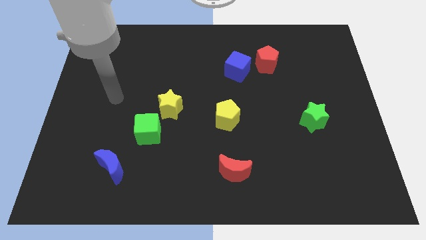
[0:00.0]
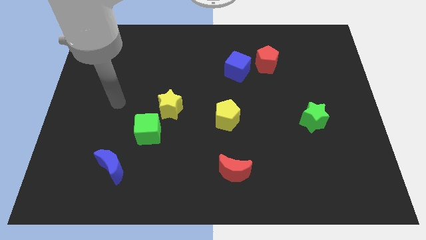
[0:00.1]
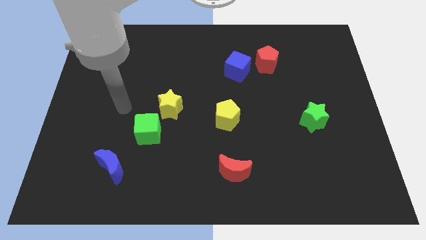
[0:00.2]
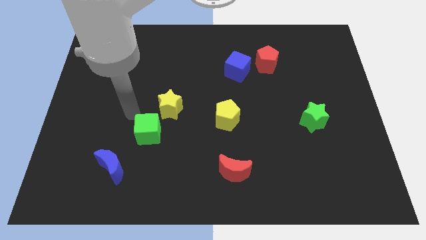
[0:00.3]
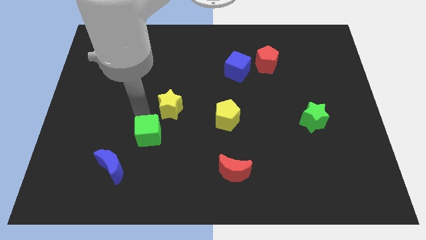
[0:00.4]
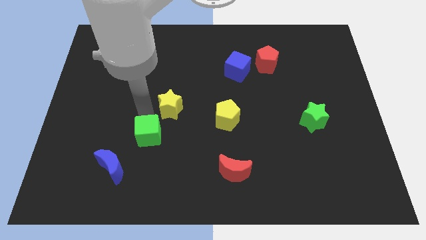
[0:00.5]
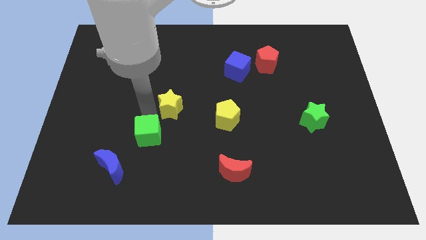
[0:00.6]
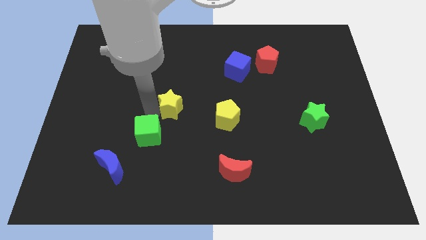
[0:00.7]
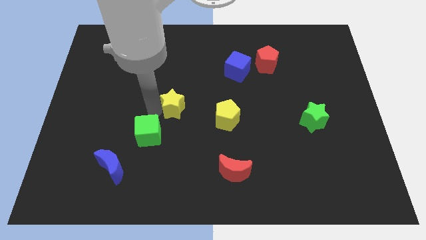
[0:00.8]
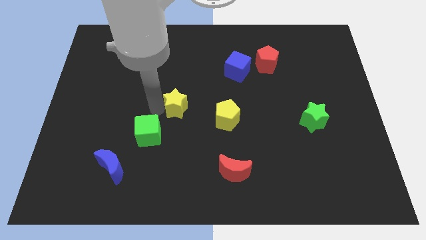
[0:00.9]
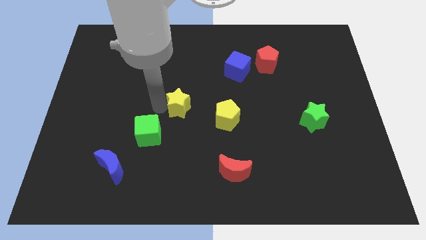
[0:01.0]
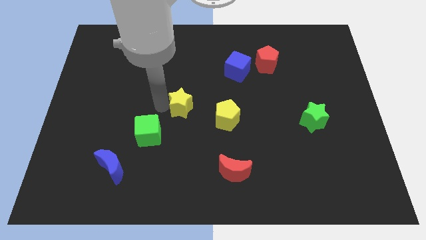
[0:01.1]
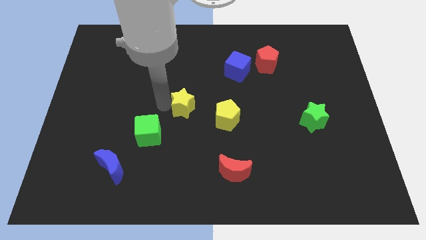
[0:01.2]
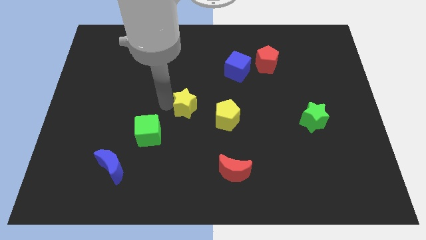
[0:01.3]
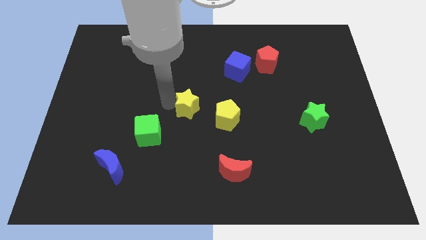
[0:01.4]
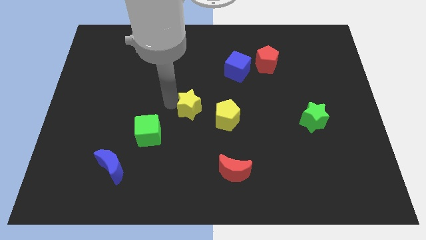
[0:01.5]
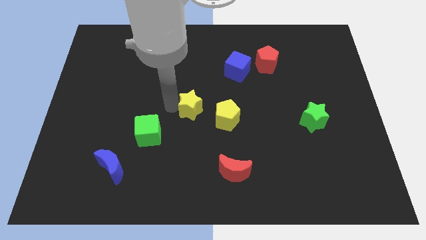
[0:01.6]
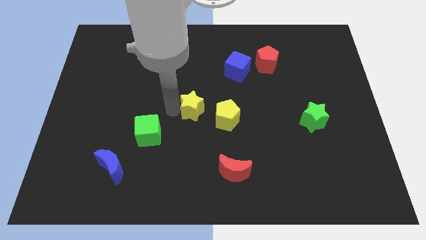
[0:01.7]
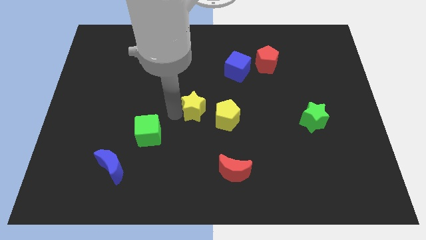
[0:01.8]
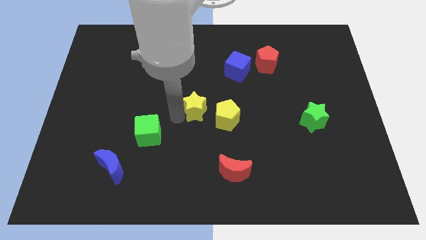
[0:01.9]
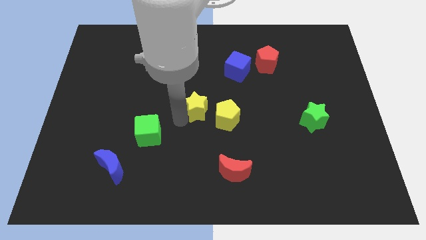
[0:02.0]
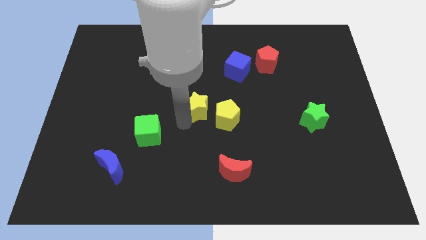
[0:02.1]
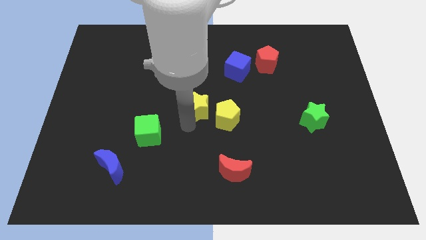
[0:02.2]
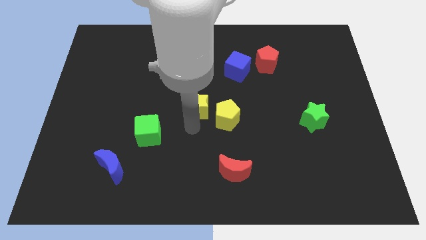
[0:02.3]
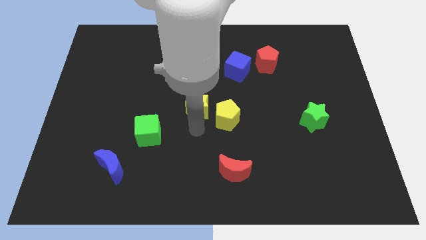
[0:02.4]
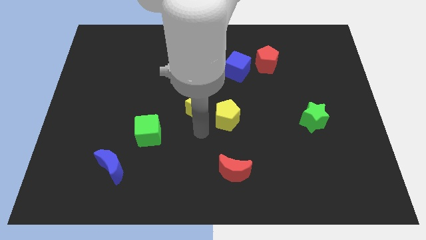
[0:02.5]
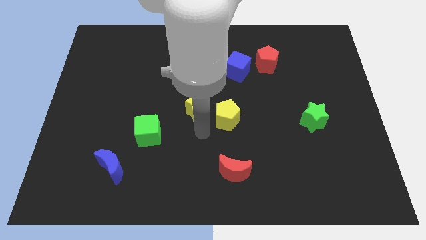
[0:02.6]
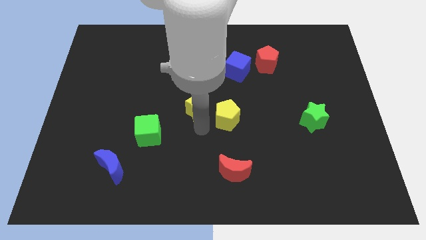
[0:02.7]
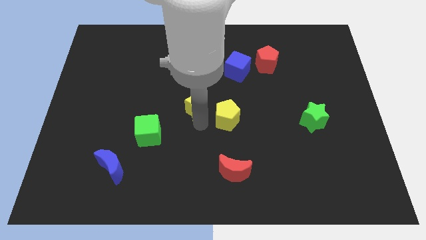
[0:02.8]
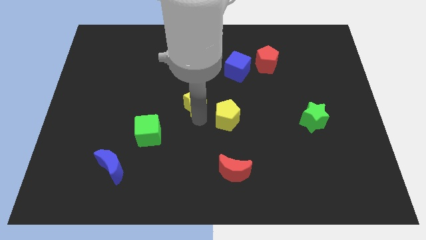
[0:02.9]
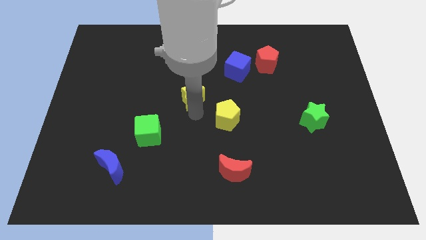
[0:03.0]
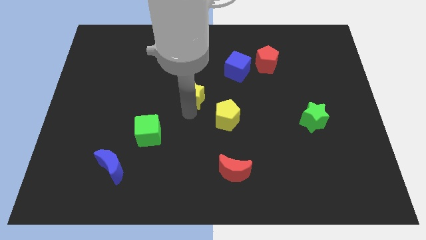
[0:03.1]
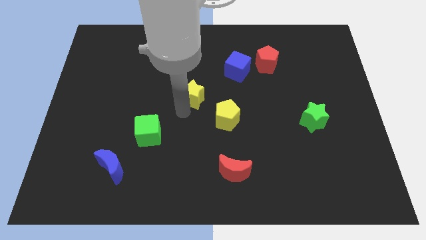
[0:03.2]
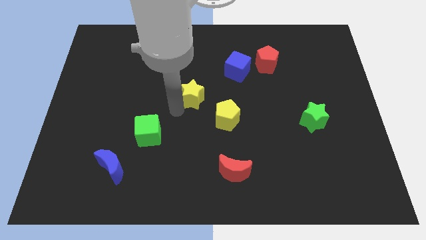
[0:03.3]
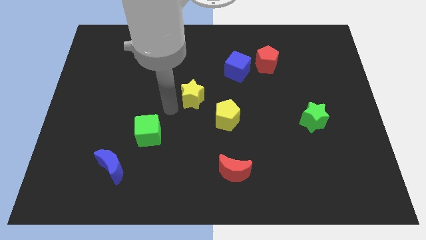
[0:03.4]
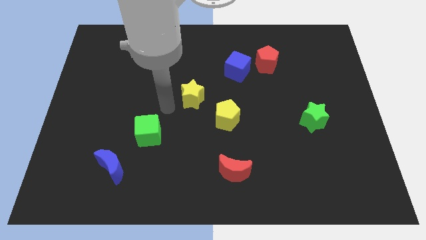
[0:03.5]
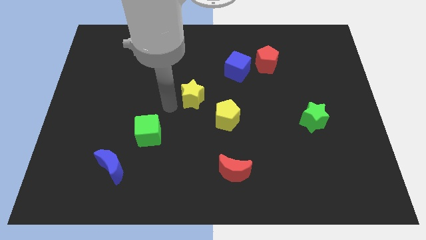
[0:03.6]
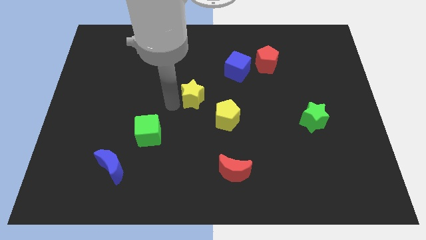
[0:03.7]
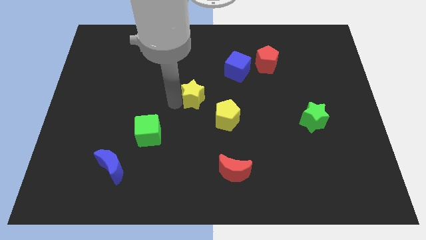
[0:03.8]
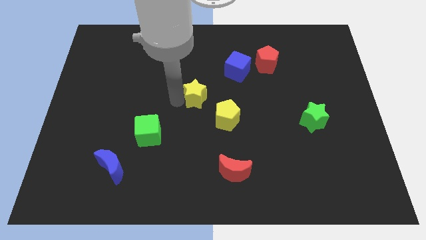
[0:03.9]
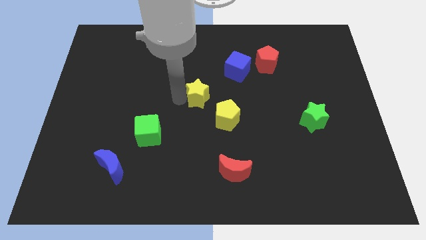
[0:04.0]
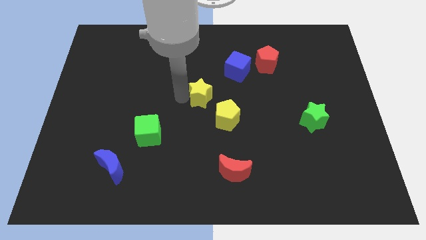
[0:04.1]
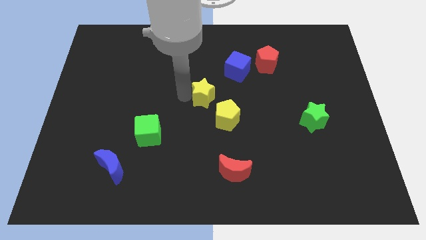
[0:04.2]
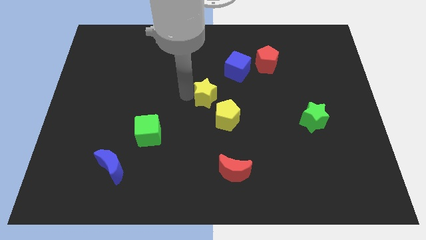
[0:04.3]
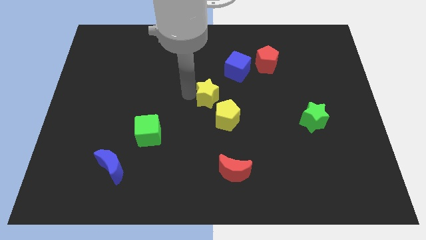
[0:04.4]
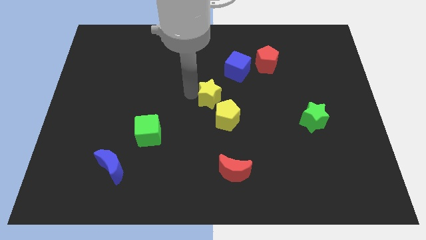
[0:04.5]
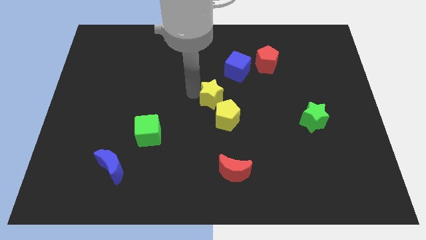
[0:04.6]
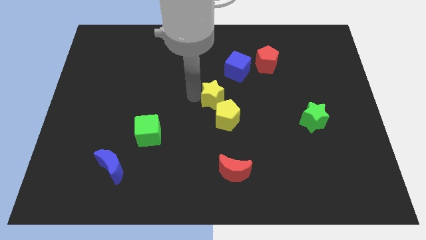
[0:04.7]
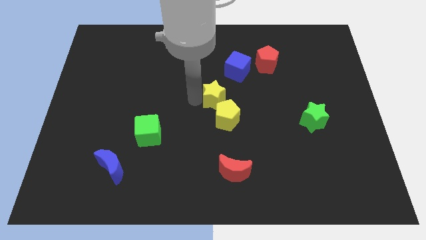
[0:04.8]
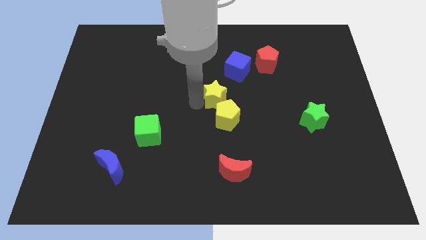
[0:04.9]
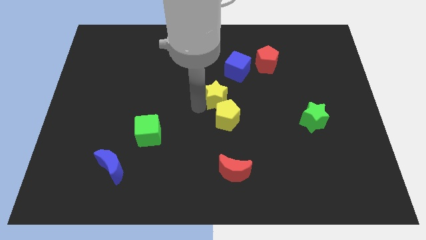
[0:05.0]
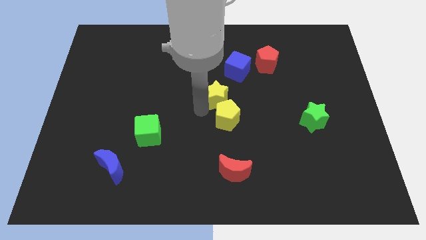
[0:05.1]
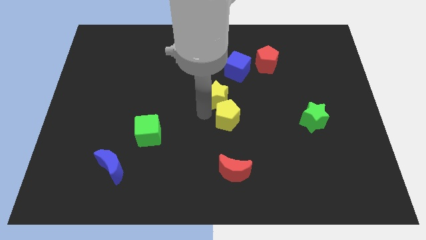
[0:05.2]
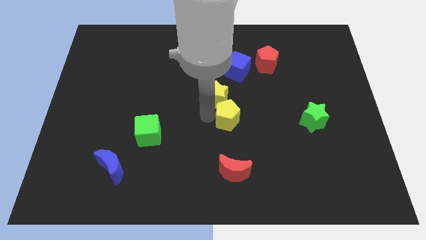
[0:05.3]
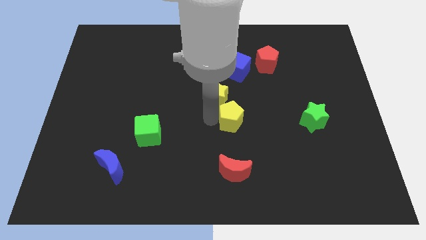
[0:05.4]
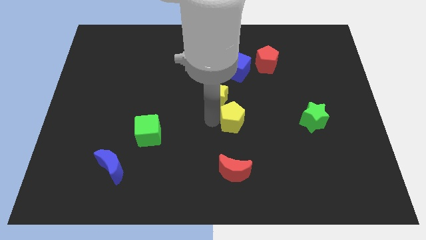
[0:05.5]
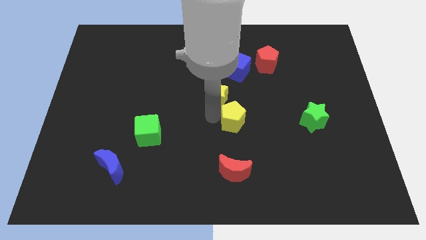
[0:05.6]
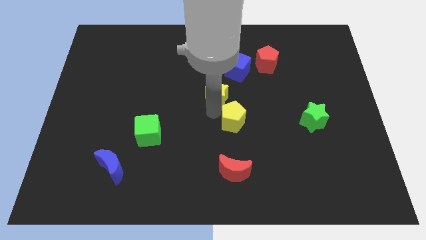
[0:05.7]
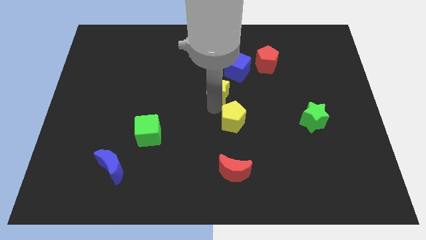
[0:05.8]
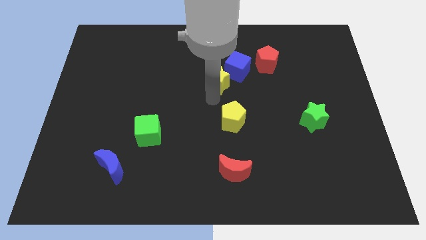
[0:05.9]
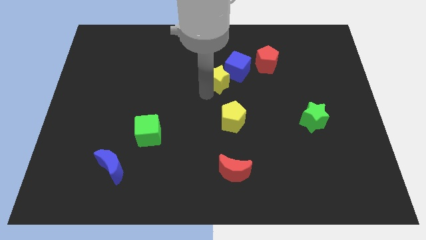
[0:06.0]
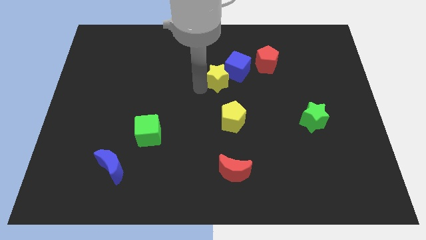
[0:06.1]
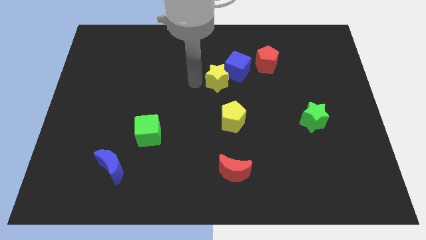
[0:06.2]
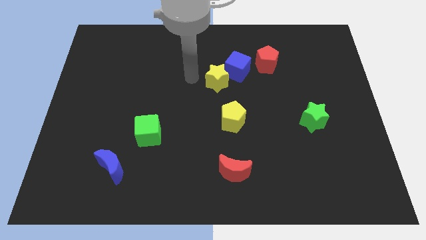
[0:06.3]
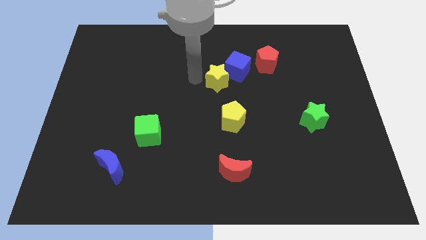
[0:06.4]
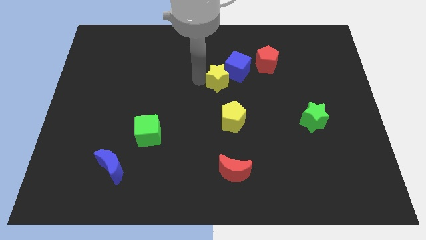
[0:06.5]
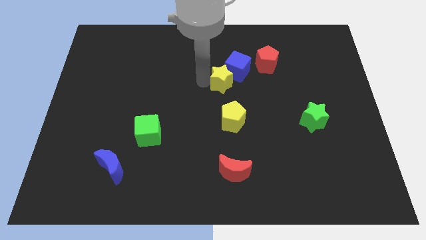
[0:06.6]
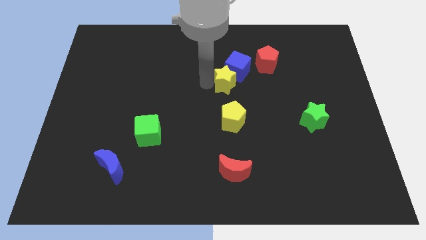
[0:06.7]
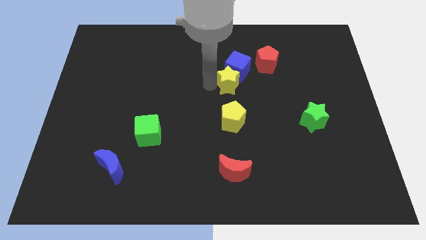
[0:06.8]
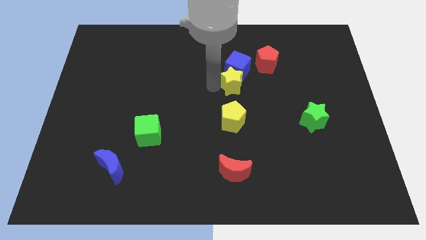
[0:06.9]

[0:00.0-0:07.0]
put the yellow star to the bottom right side of the blue cube

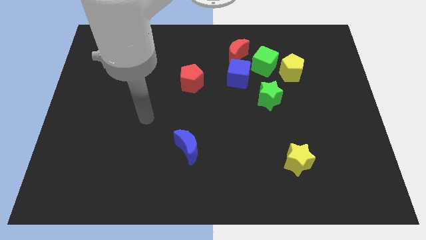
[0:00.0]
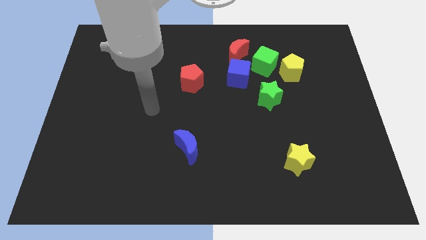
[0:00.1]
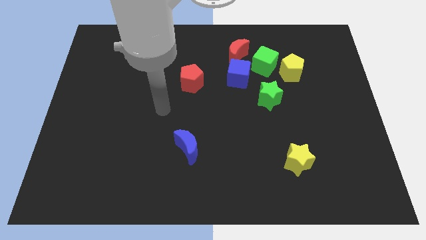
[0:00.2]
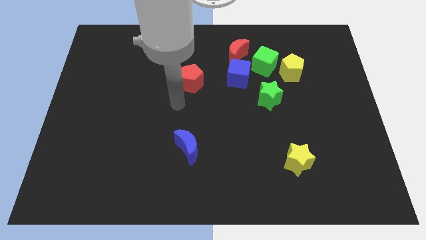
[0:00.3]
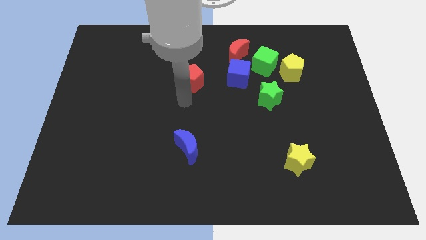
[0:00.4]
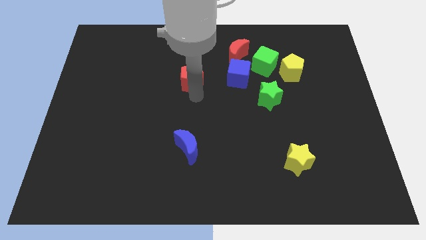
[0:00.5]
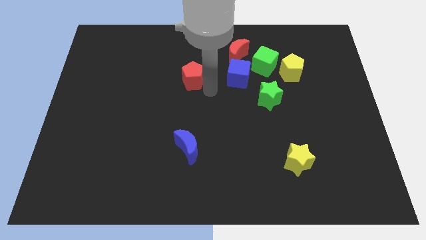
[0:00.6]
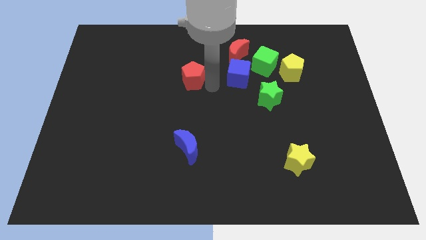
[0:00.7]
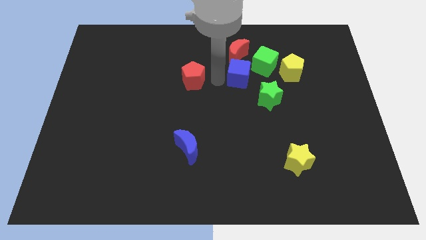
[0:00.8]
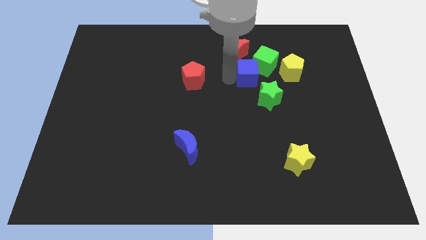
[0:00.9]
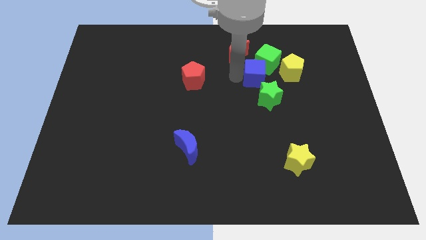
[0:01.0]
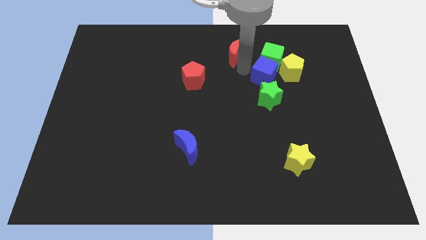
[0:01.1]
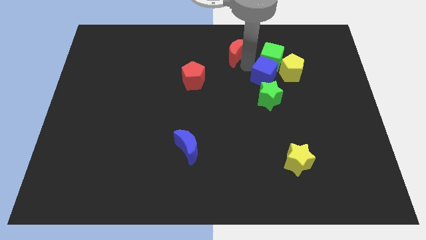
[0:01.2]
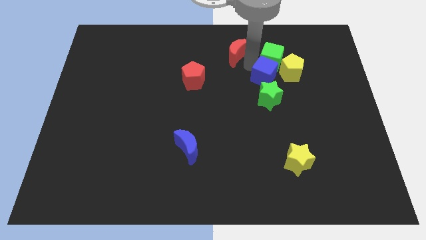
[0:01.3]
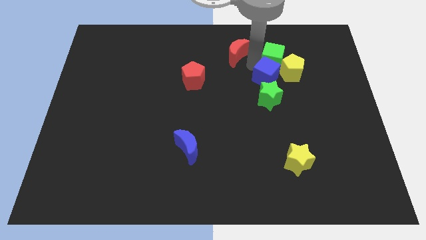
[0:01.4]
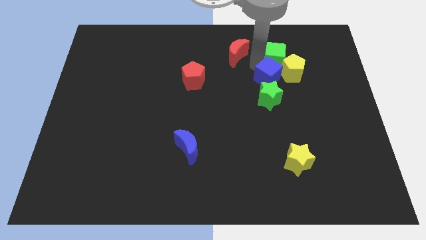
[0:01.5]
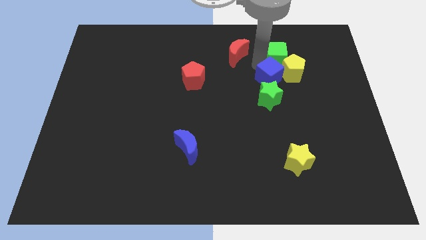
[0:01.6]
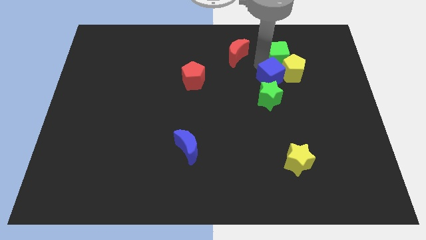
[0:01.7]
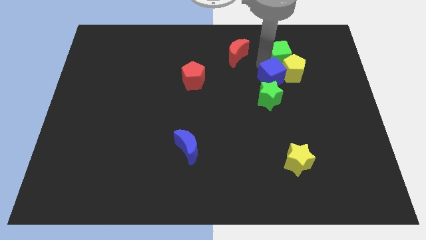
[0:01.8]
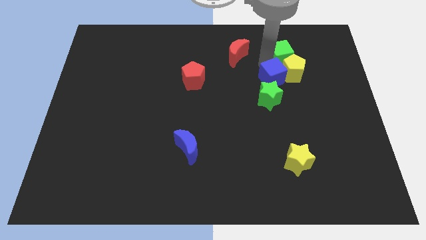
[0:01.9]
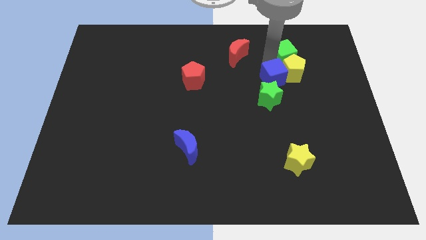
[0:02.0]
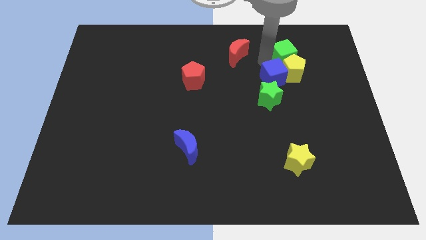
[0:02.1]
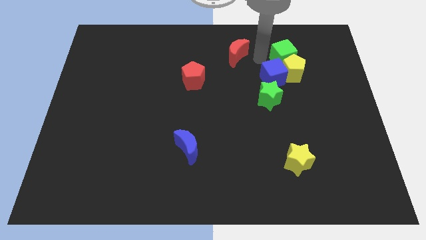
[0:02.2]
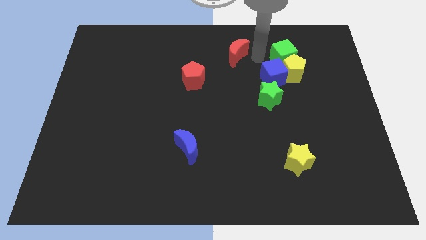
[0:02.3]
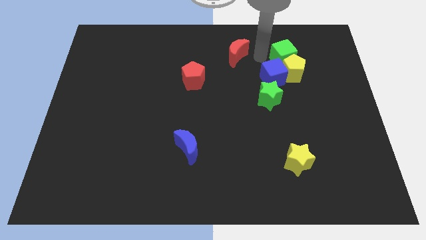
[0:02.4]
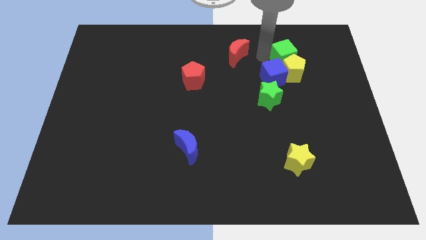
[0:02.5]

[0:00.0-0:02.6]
push the green cube to the top right side of the yellow pentagon
